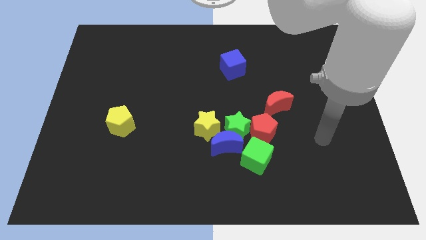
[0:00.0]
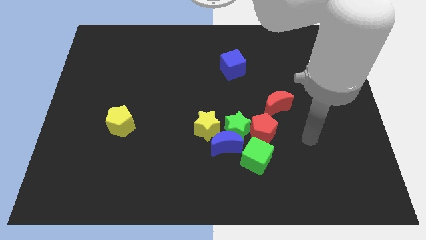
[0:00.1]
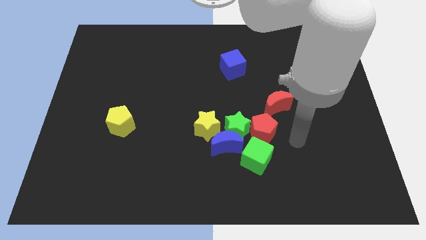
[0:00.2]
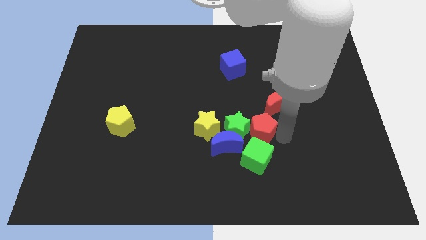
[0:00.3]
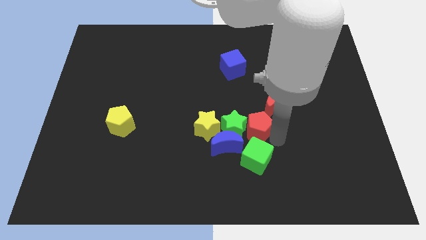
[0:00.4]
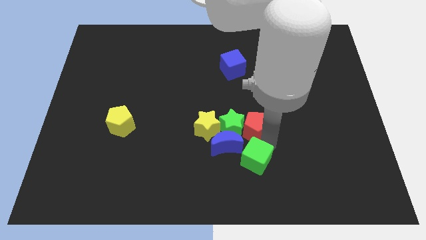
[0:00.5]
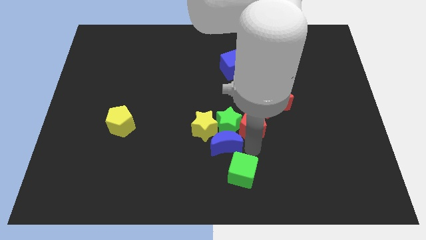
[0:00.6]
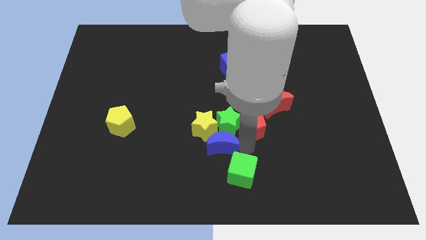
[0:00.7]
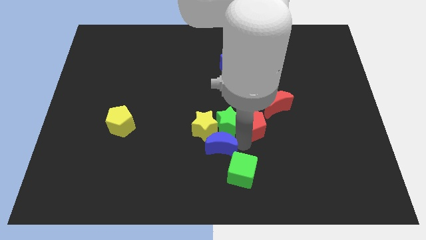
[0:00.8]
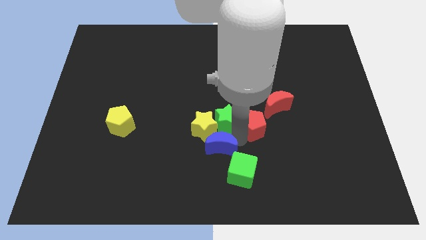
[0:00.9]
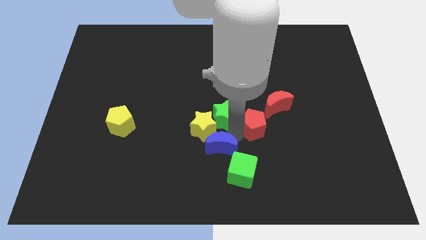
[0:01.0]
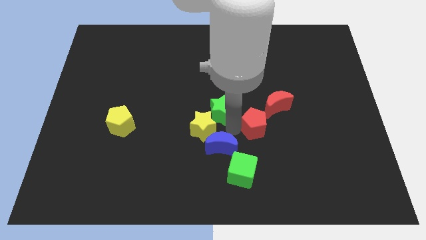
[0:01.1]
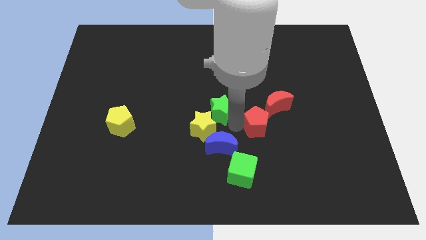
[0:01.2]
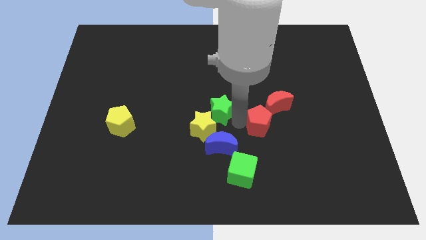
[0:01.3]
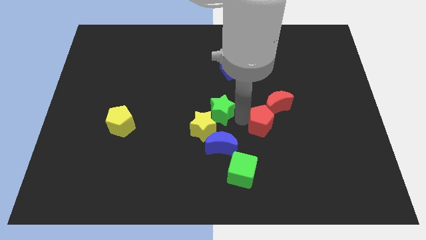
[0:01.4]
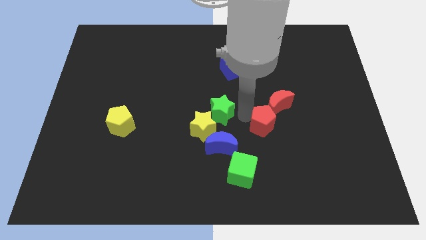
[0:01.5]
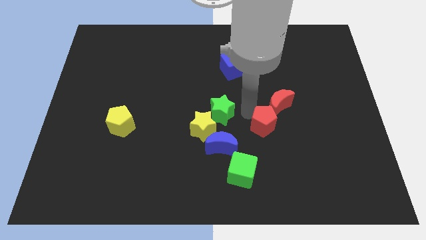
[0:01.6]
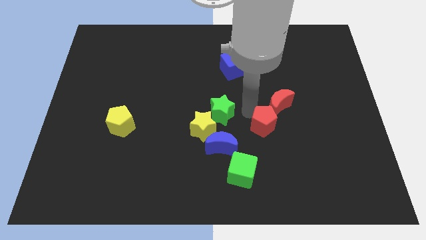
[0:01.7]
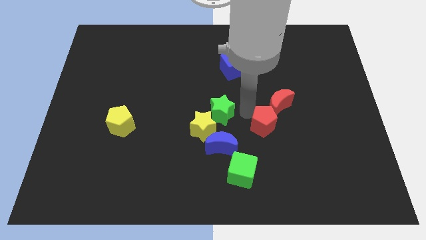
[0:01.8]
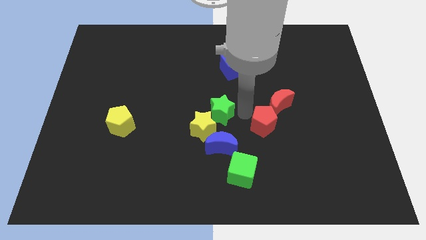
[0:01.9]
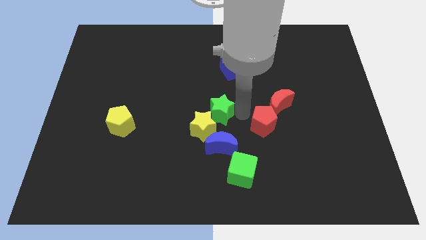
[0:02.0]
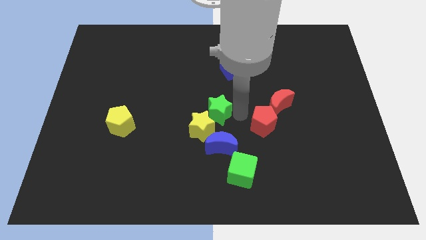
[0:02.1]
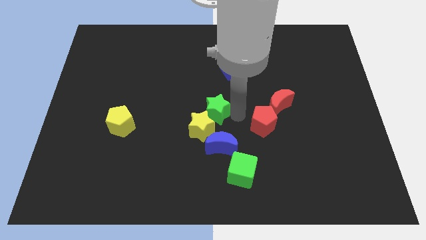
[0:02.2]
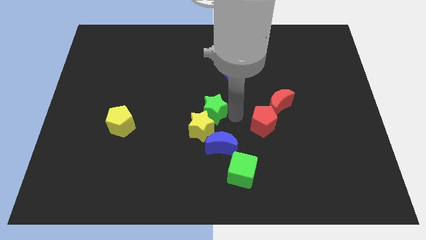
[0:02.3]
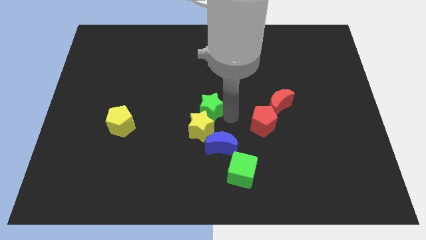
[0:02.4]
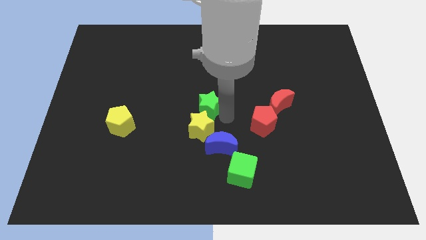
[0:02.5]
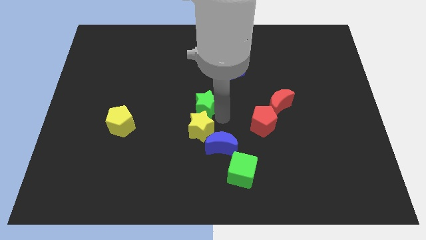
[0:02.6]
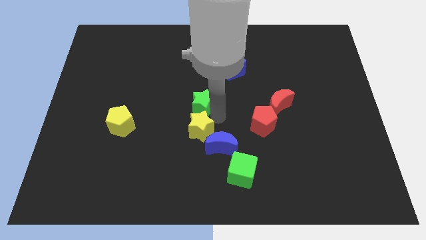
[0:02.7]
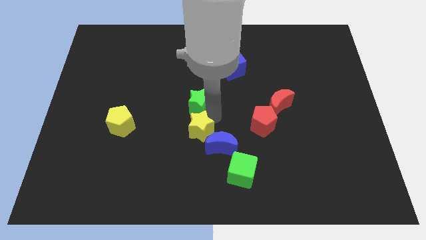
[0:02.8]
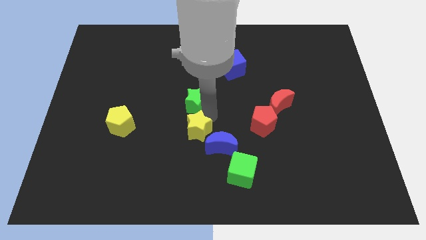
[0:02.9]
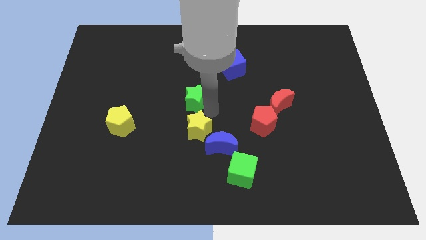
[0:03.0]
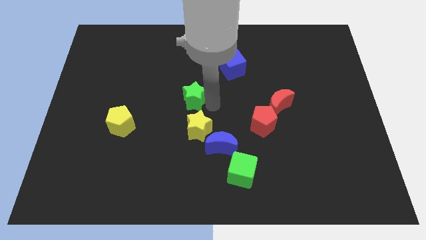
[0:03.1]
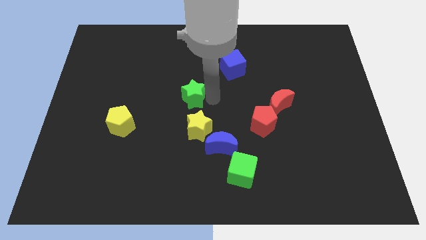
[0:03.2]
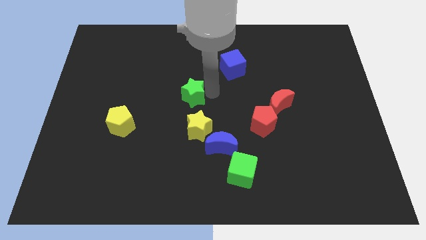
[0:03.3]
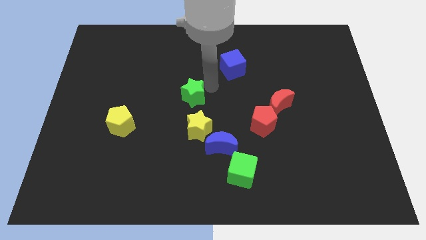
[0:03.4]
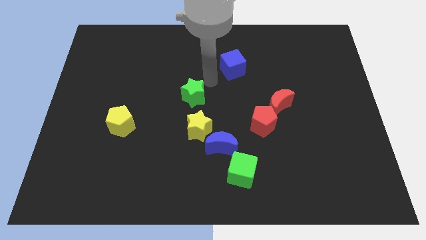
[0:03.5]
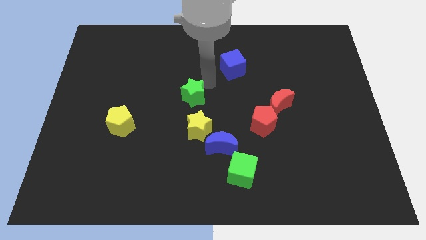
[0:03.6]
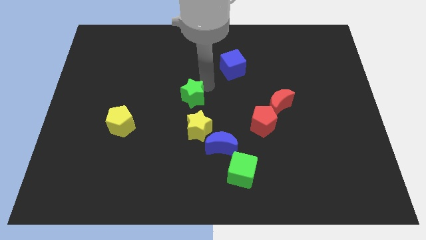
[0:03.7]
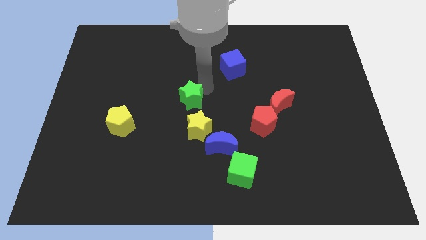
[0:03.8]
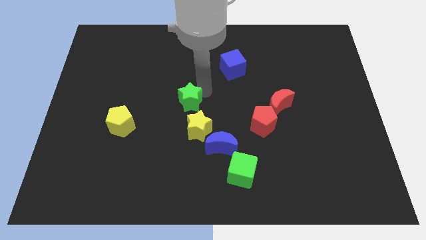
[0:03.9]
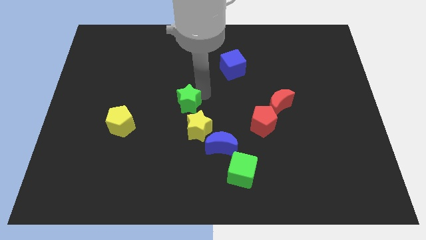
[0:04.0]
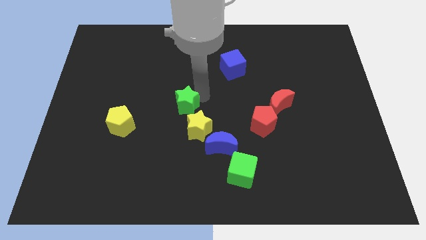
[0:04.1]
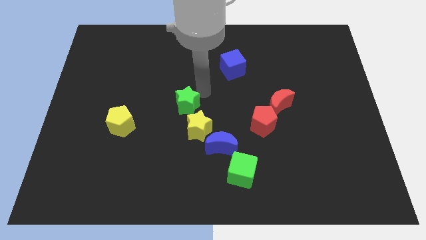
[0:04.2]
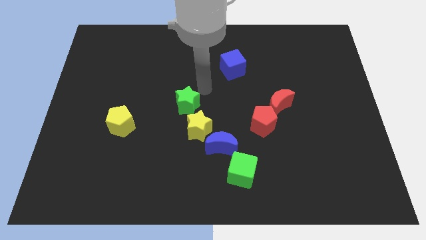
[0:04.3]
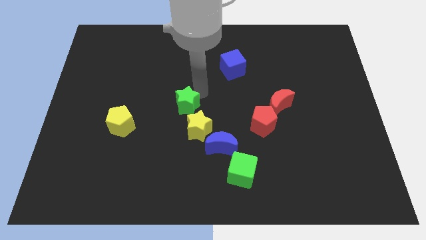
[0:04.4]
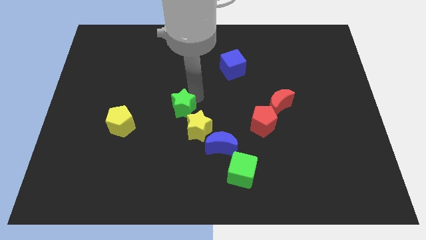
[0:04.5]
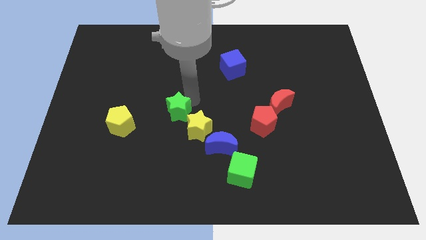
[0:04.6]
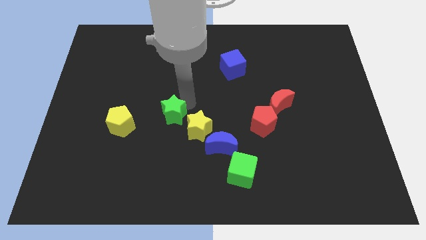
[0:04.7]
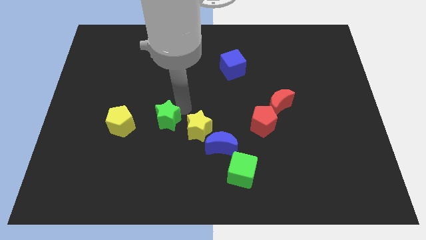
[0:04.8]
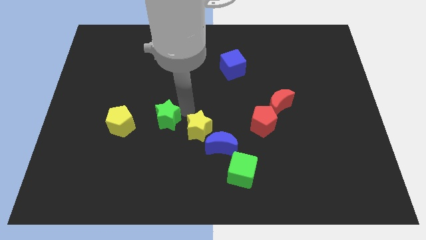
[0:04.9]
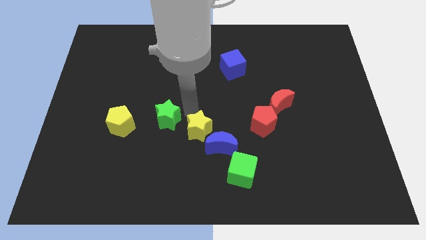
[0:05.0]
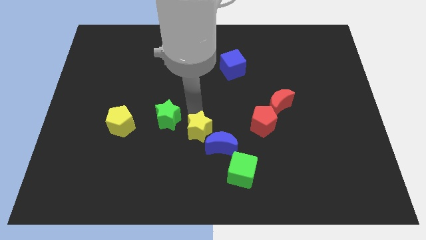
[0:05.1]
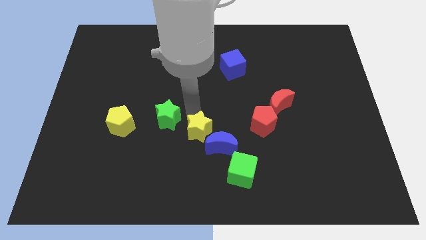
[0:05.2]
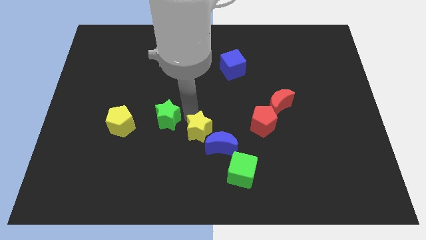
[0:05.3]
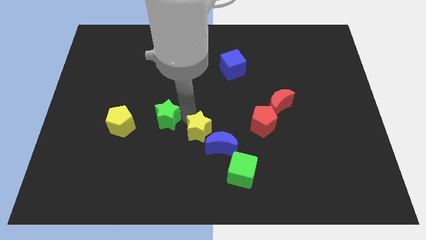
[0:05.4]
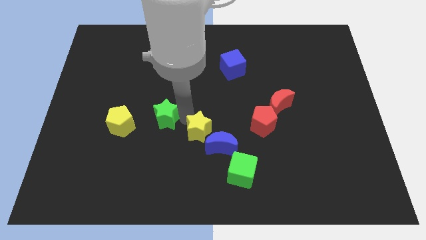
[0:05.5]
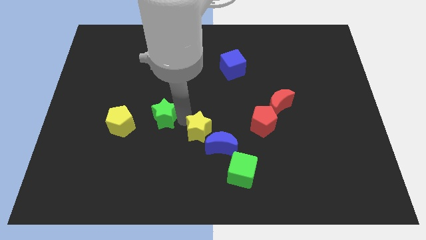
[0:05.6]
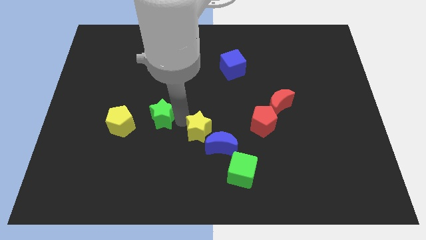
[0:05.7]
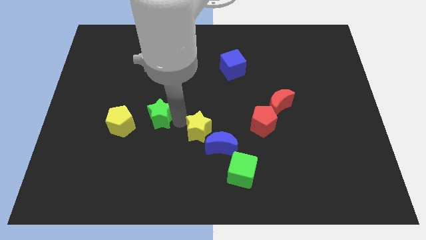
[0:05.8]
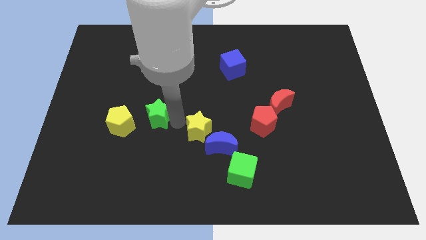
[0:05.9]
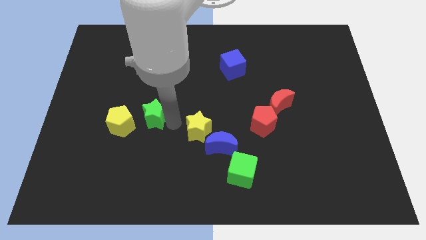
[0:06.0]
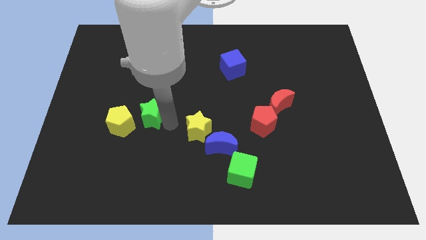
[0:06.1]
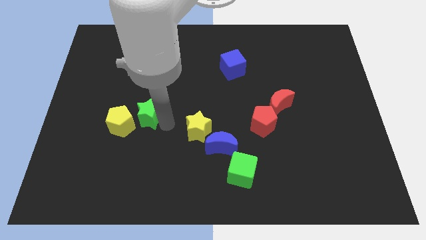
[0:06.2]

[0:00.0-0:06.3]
push the green star next to the yellow pentagon

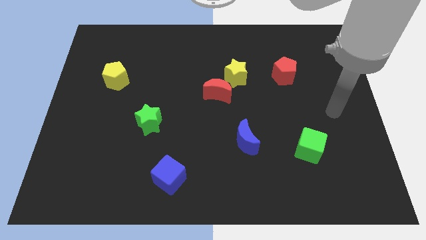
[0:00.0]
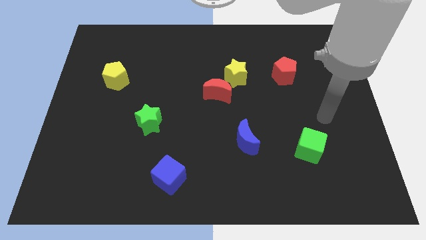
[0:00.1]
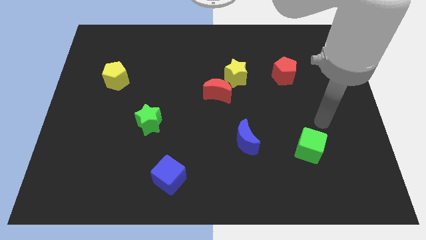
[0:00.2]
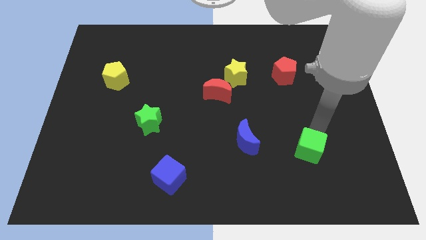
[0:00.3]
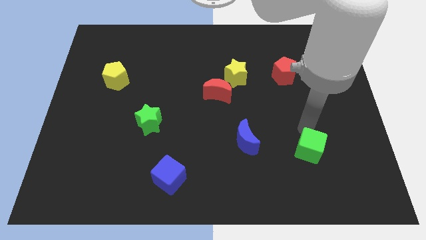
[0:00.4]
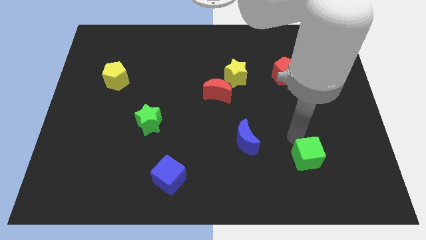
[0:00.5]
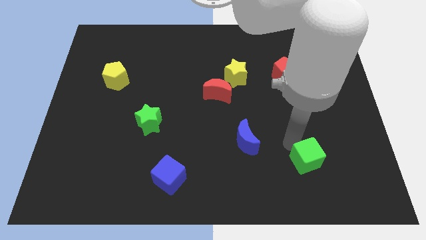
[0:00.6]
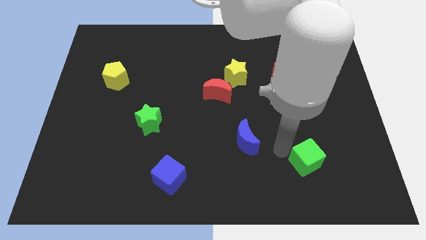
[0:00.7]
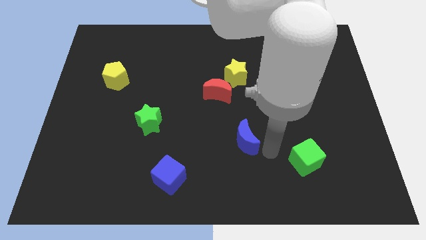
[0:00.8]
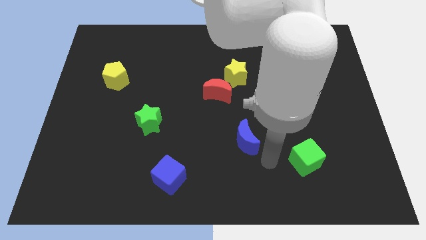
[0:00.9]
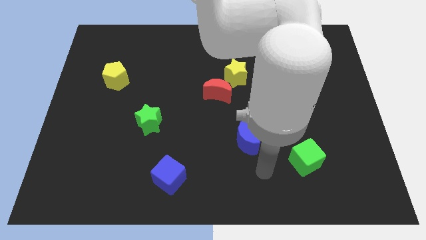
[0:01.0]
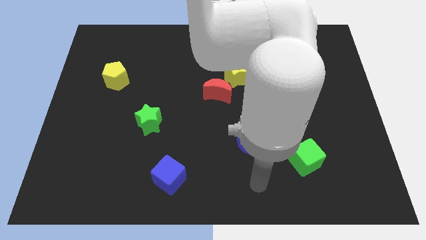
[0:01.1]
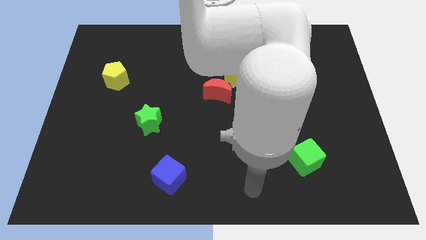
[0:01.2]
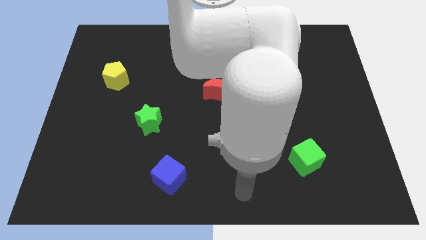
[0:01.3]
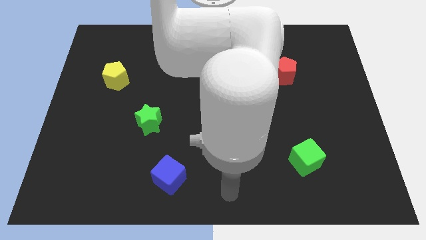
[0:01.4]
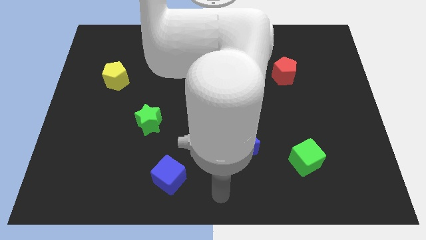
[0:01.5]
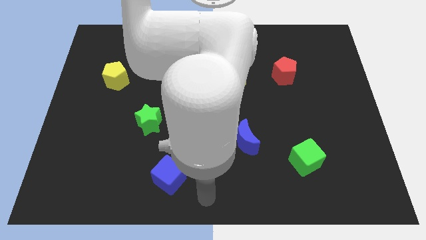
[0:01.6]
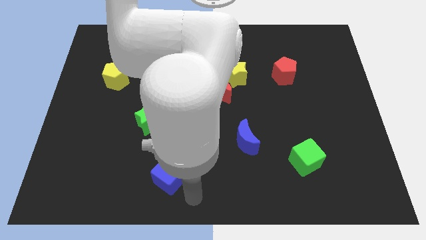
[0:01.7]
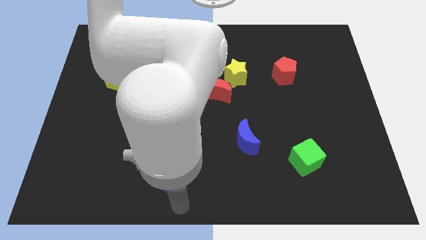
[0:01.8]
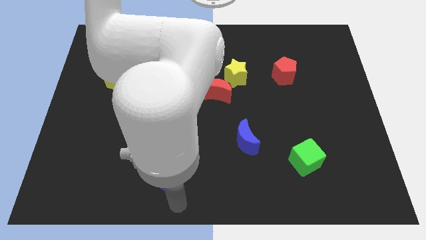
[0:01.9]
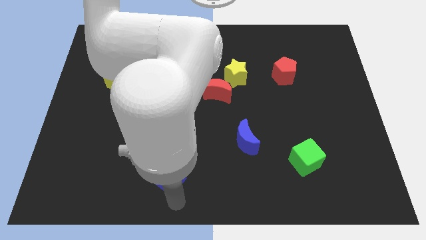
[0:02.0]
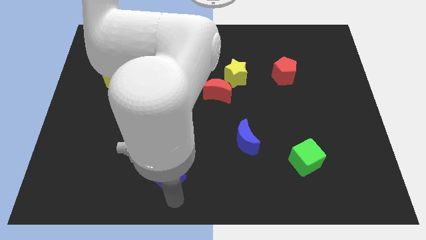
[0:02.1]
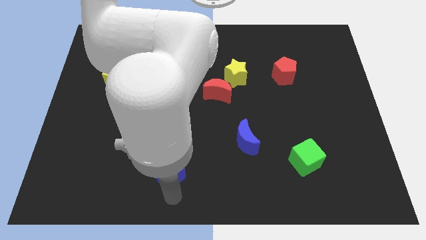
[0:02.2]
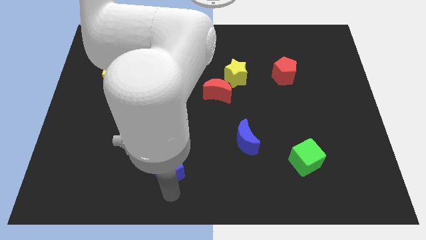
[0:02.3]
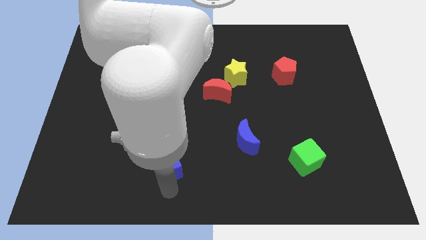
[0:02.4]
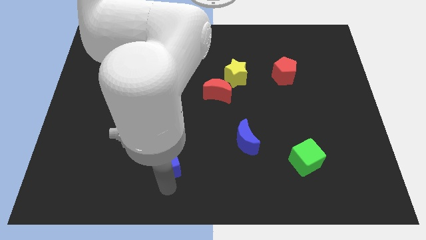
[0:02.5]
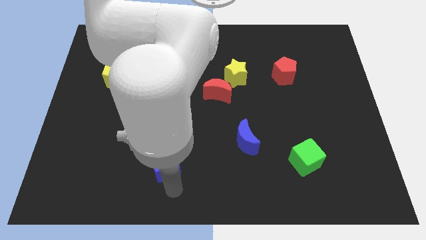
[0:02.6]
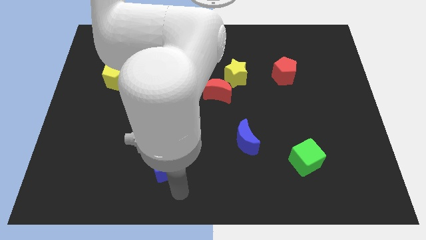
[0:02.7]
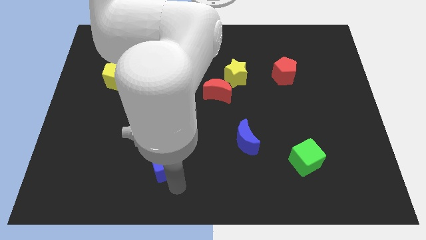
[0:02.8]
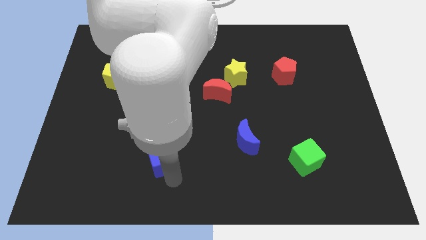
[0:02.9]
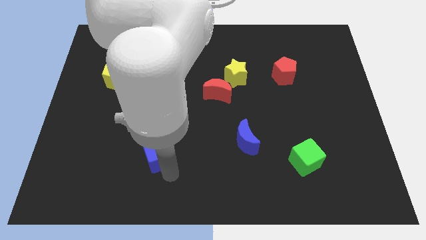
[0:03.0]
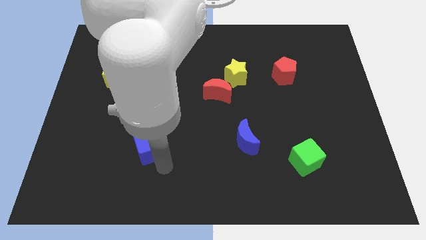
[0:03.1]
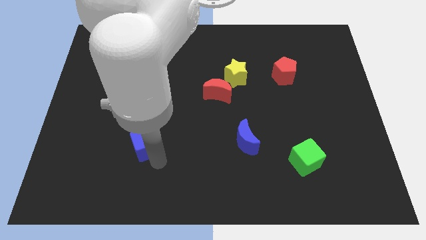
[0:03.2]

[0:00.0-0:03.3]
put the blue cube towards the green star
